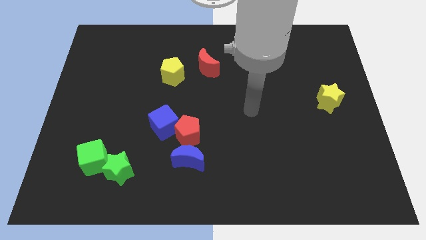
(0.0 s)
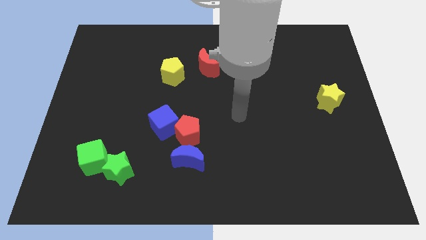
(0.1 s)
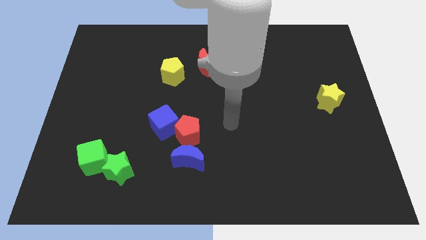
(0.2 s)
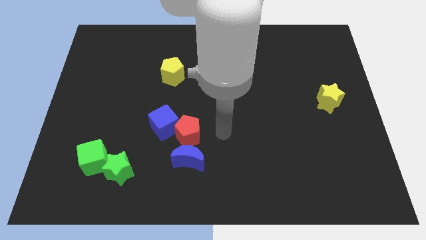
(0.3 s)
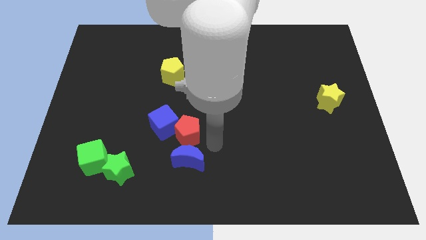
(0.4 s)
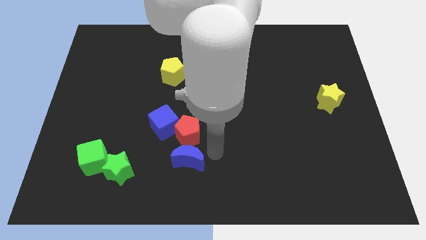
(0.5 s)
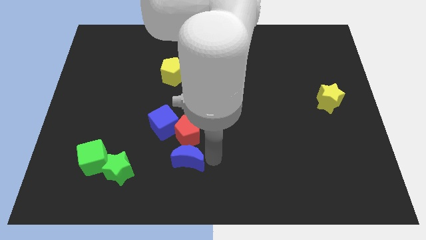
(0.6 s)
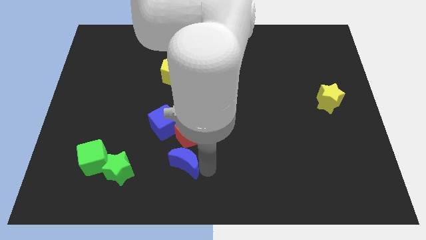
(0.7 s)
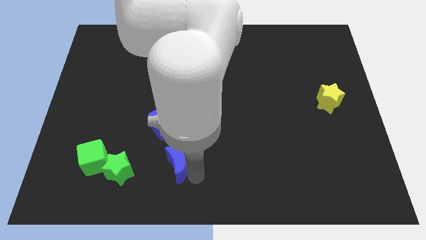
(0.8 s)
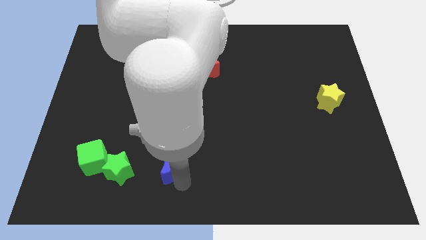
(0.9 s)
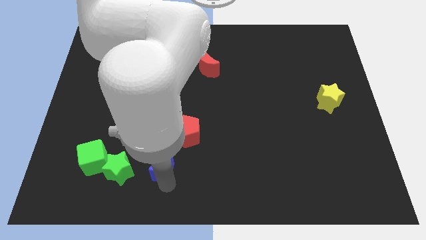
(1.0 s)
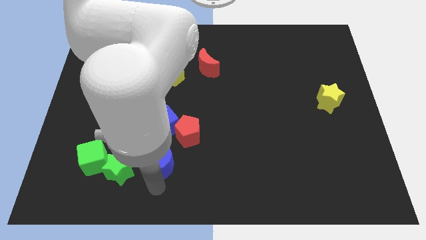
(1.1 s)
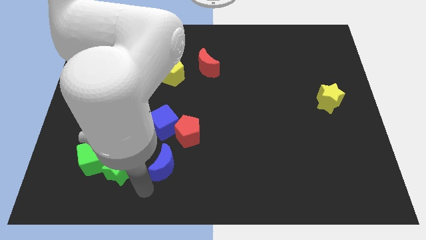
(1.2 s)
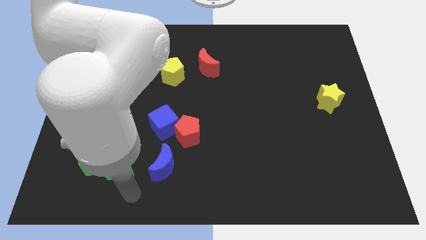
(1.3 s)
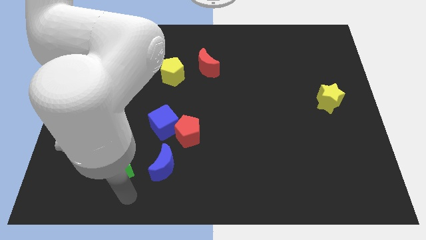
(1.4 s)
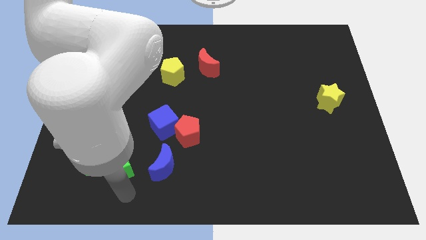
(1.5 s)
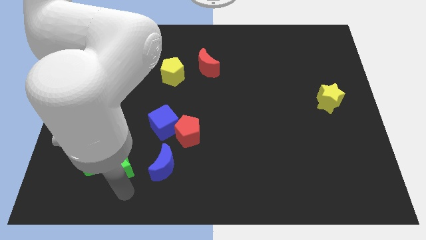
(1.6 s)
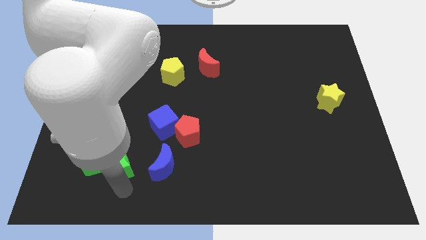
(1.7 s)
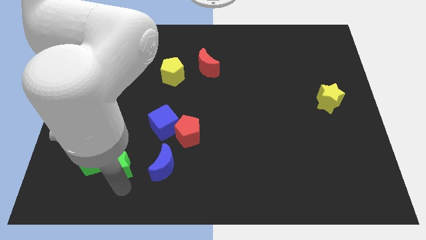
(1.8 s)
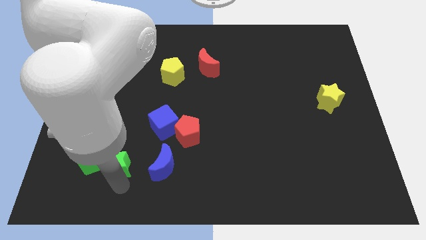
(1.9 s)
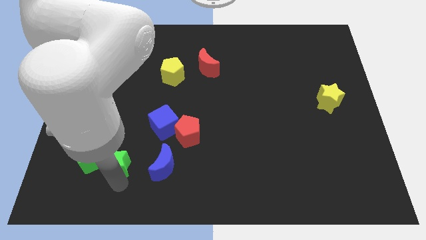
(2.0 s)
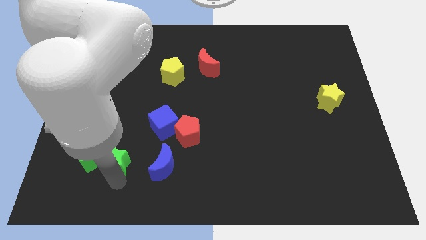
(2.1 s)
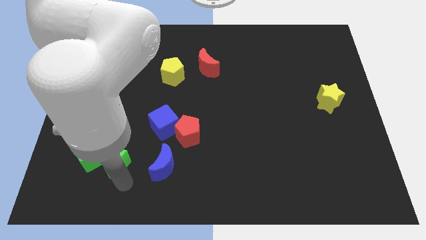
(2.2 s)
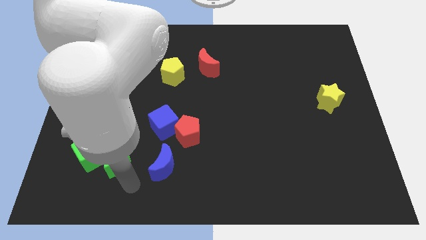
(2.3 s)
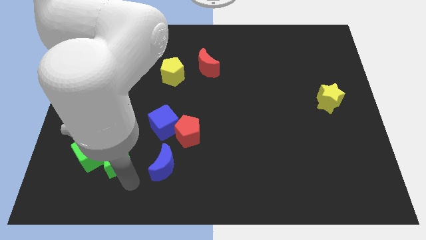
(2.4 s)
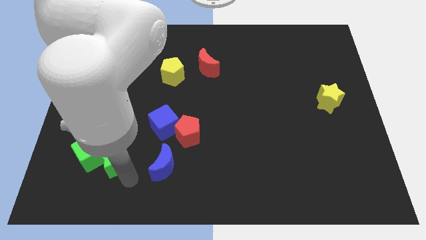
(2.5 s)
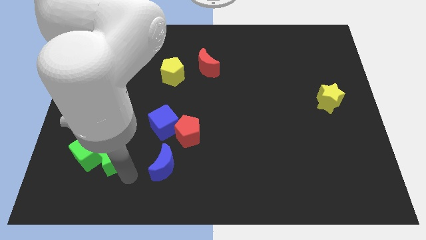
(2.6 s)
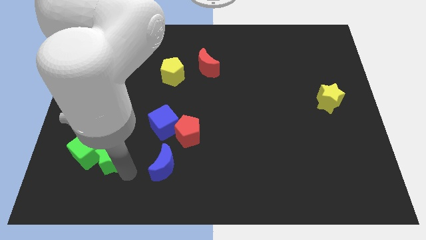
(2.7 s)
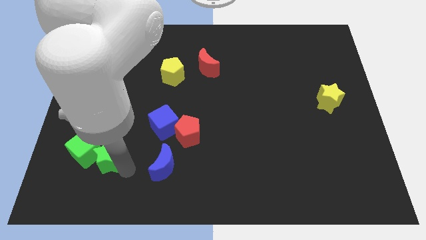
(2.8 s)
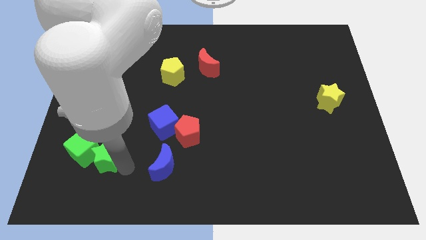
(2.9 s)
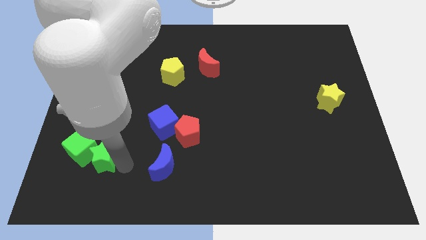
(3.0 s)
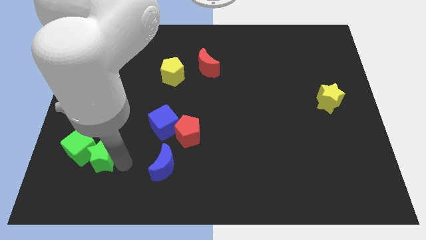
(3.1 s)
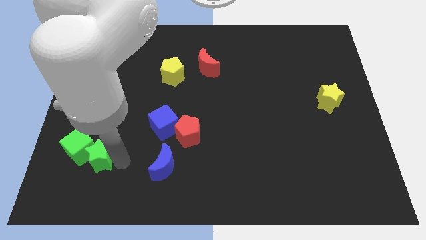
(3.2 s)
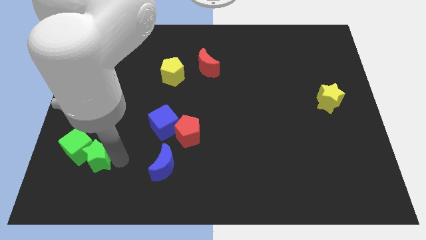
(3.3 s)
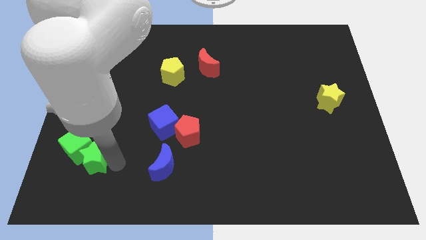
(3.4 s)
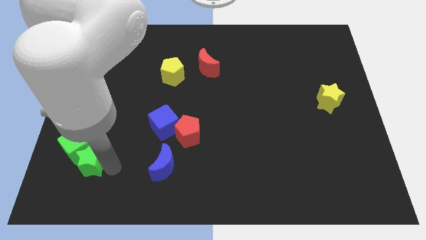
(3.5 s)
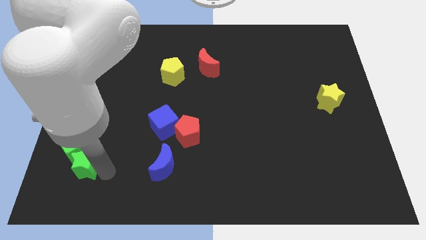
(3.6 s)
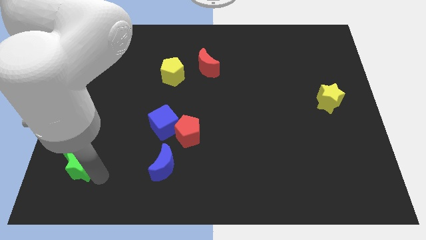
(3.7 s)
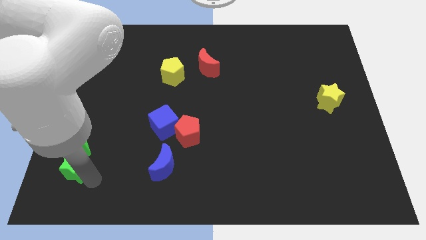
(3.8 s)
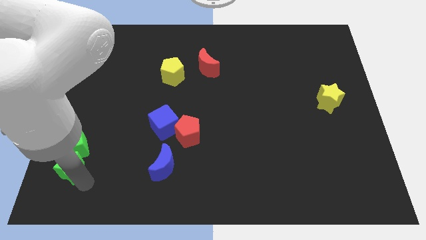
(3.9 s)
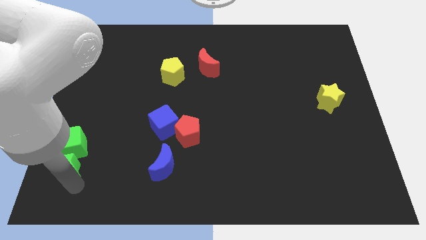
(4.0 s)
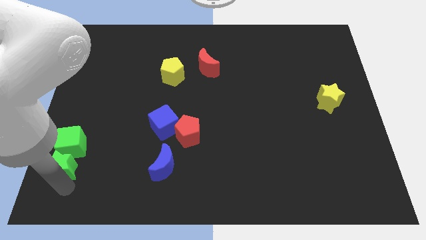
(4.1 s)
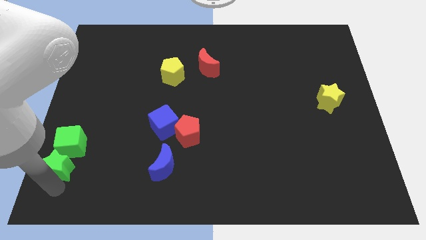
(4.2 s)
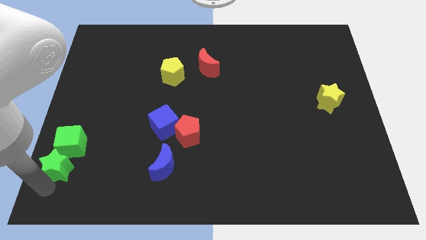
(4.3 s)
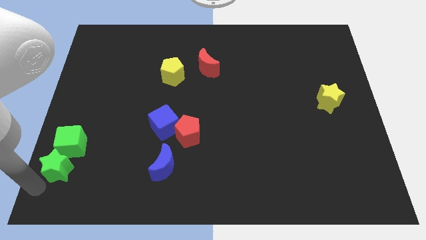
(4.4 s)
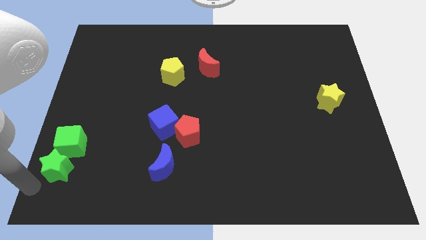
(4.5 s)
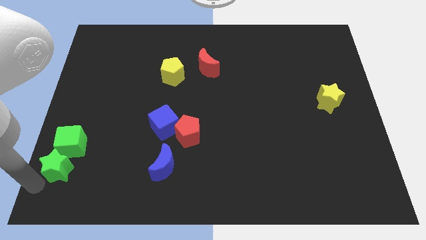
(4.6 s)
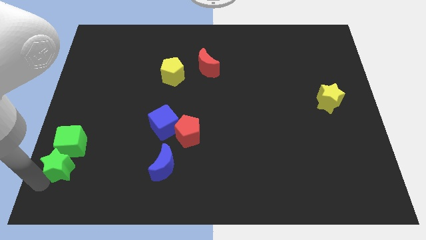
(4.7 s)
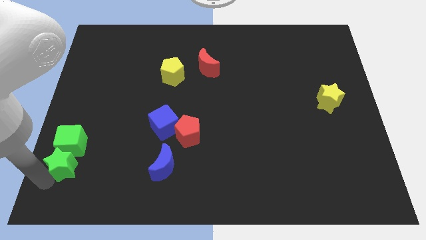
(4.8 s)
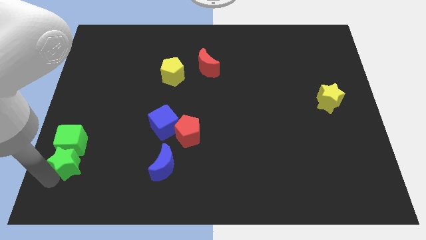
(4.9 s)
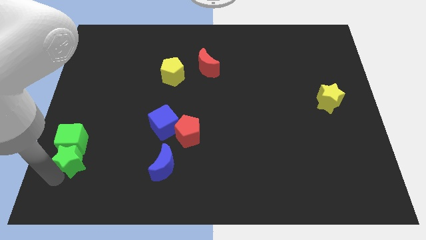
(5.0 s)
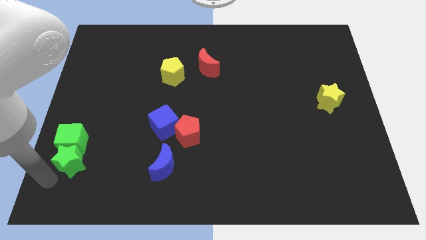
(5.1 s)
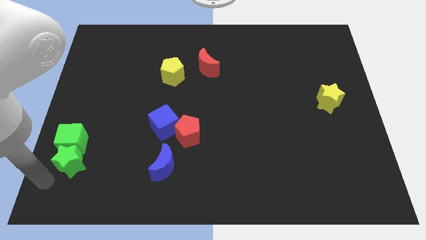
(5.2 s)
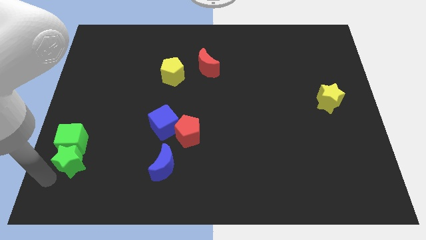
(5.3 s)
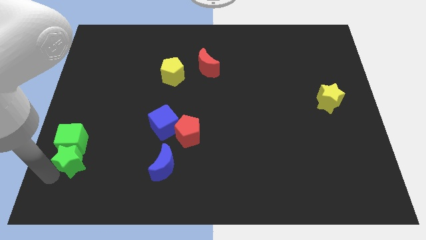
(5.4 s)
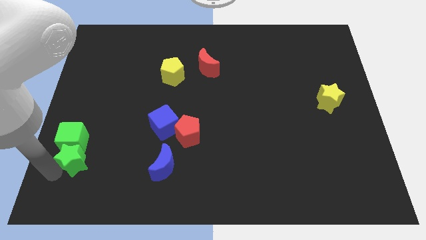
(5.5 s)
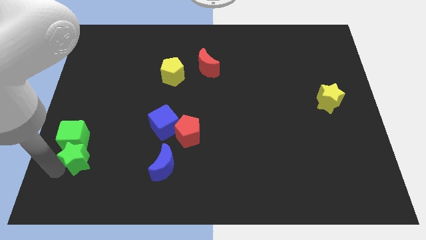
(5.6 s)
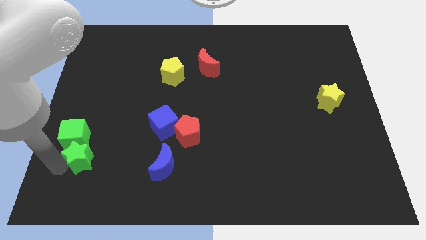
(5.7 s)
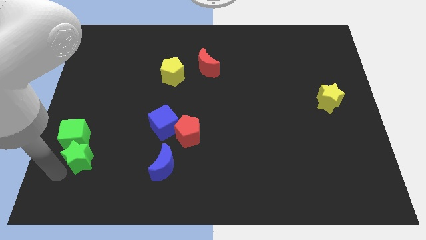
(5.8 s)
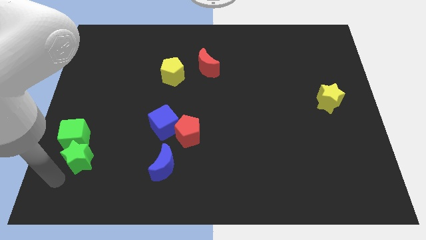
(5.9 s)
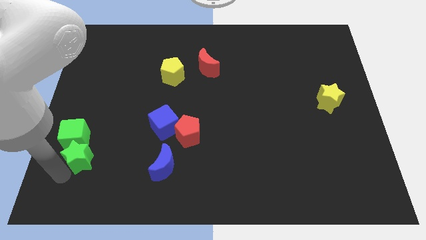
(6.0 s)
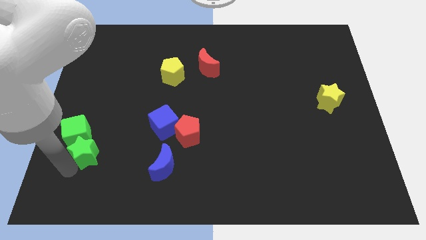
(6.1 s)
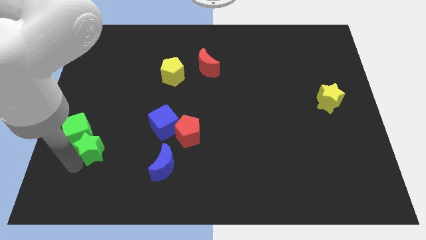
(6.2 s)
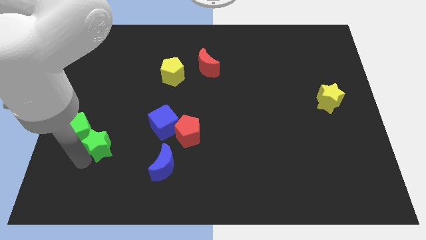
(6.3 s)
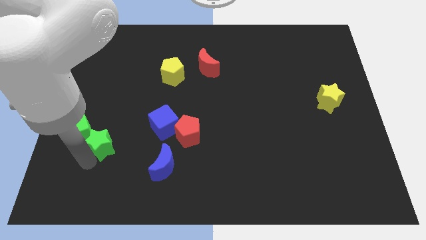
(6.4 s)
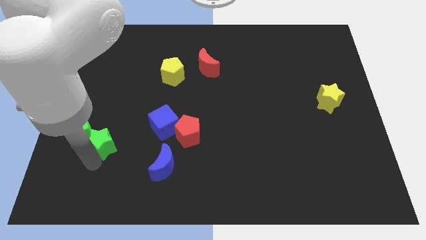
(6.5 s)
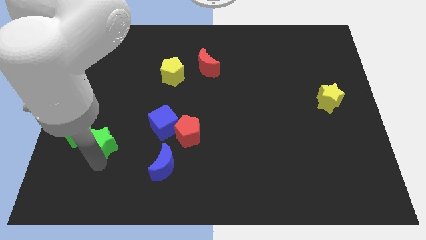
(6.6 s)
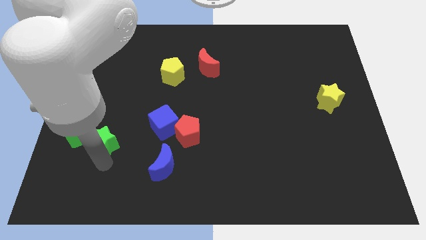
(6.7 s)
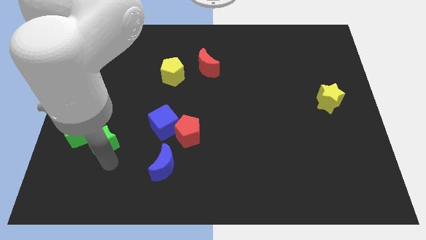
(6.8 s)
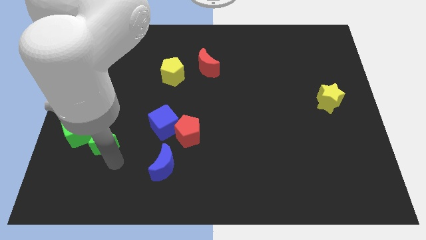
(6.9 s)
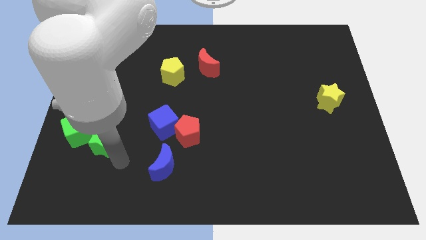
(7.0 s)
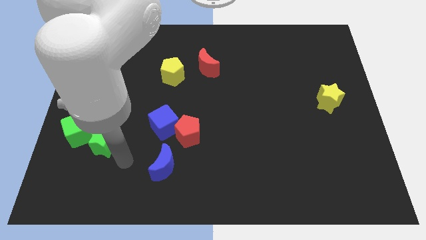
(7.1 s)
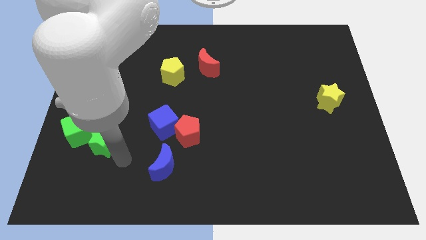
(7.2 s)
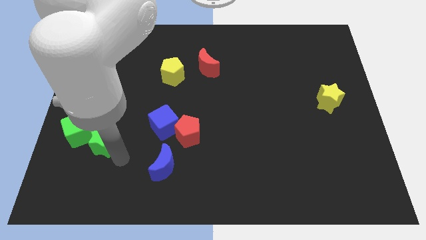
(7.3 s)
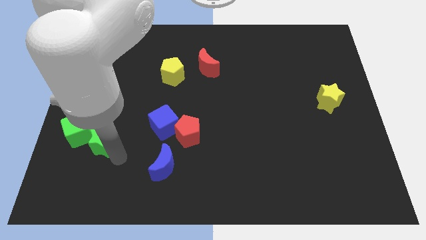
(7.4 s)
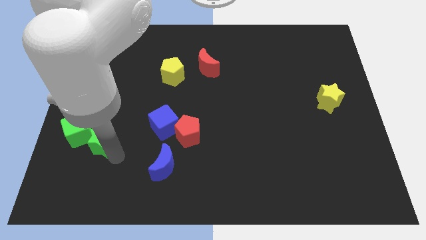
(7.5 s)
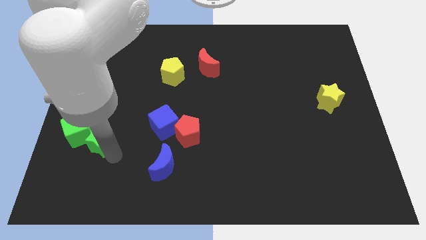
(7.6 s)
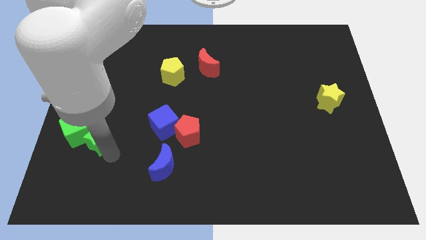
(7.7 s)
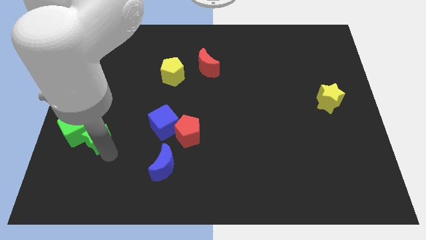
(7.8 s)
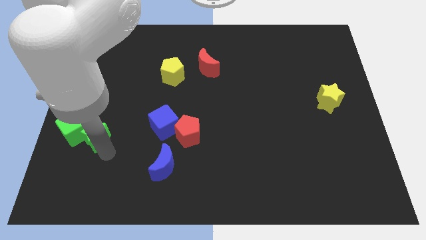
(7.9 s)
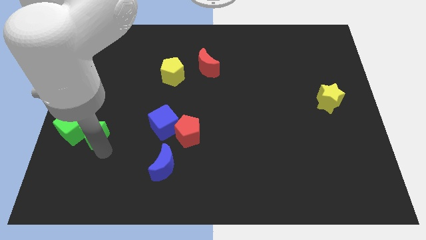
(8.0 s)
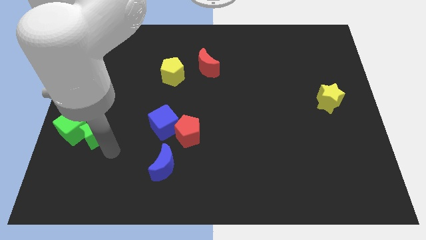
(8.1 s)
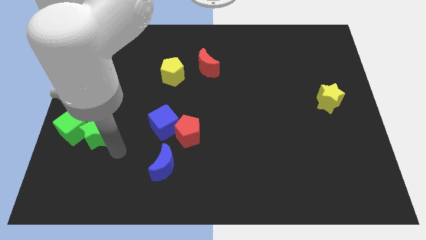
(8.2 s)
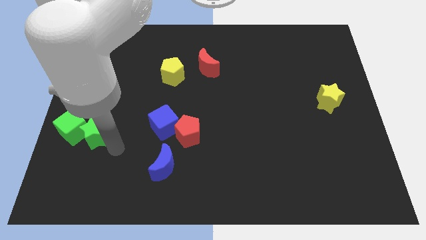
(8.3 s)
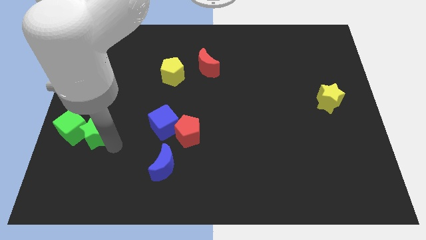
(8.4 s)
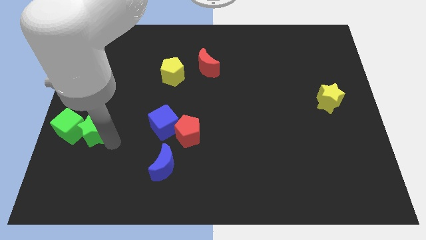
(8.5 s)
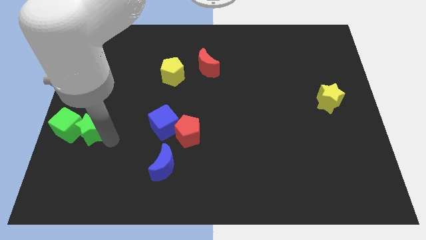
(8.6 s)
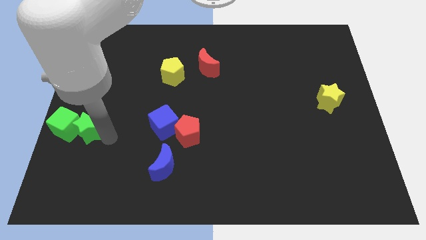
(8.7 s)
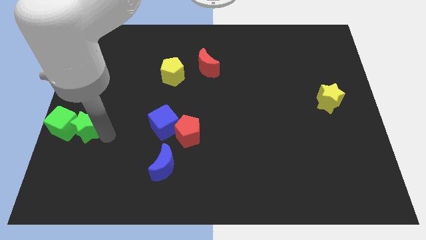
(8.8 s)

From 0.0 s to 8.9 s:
slide the green star to the left side of the board
